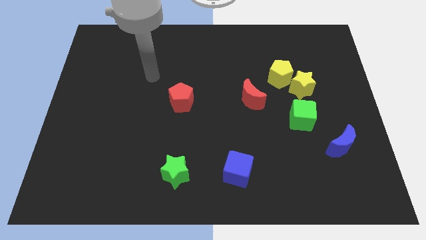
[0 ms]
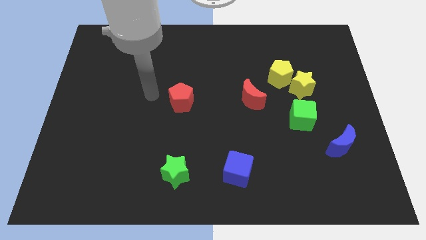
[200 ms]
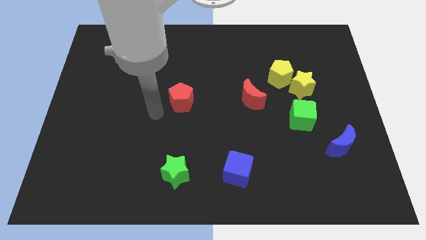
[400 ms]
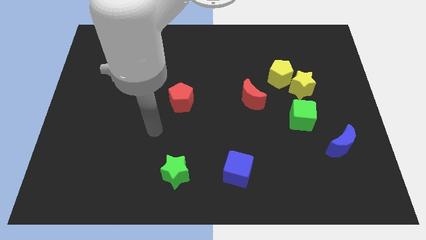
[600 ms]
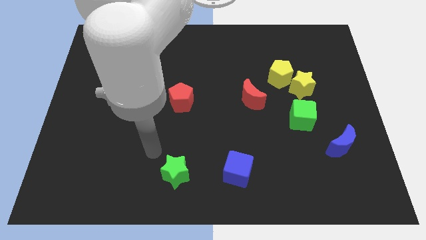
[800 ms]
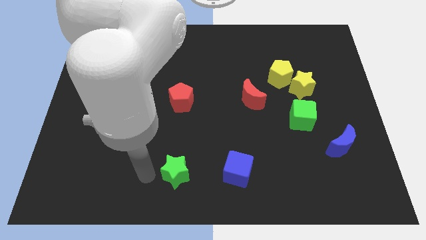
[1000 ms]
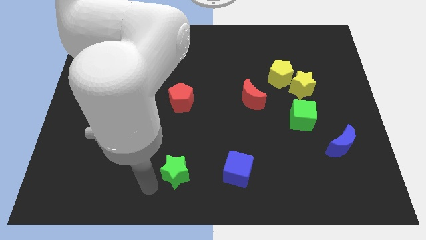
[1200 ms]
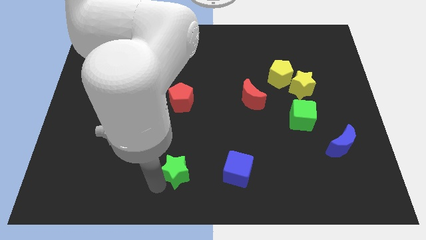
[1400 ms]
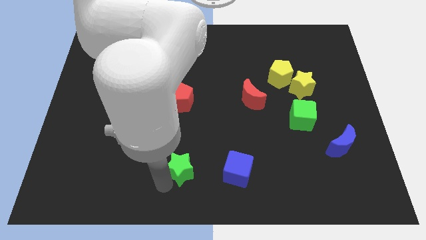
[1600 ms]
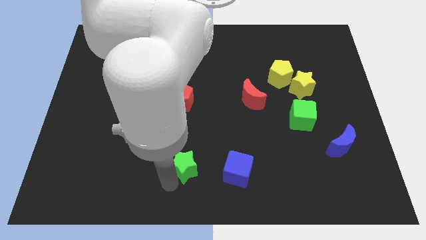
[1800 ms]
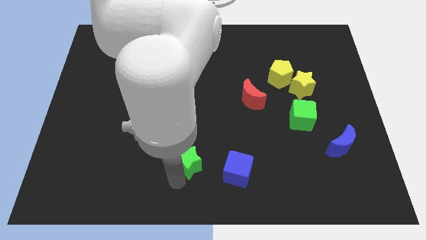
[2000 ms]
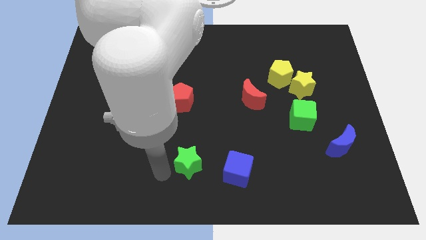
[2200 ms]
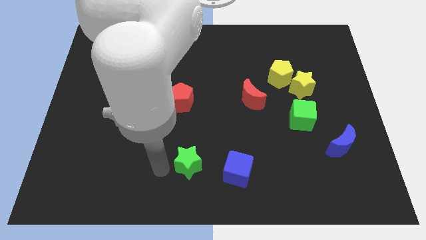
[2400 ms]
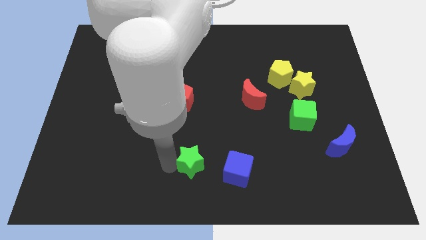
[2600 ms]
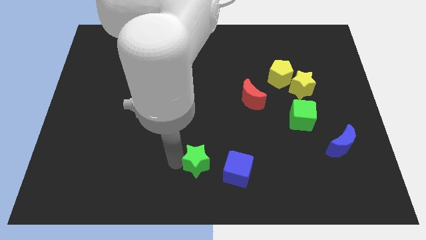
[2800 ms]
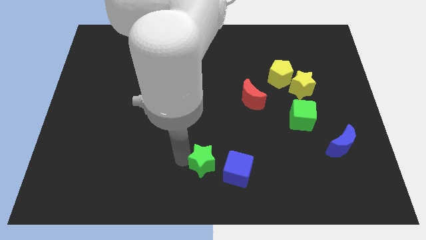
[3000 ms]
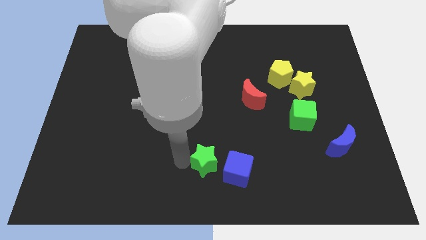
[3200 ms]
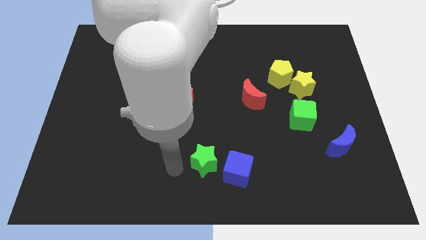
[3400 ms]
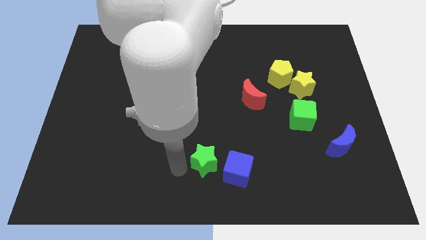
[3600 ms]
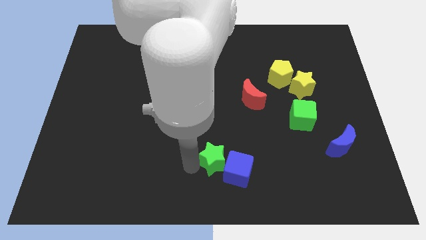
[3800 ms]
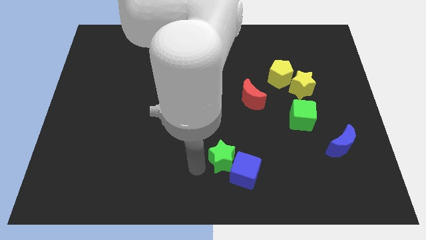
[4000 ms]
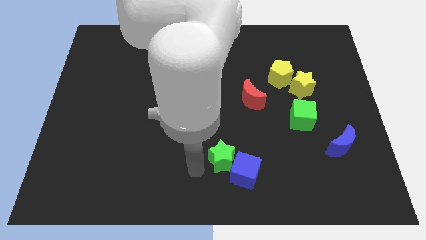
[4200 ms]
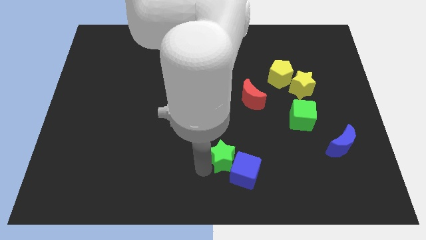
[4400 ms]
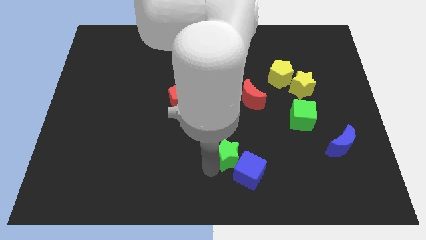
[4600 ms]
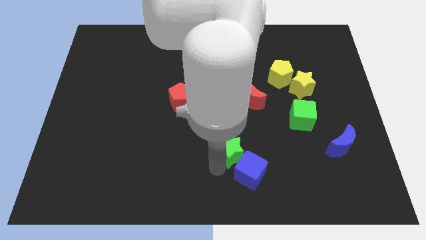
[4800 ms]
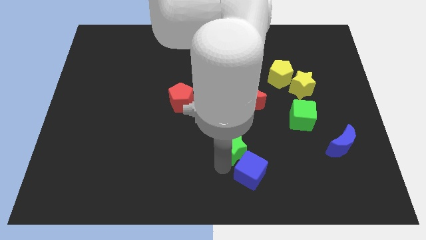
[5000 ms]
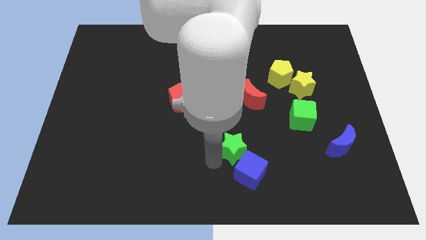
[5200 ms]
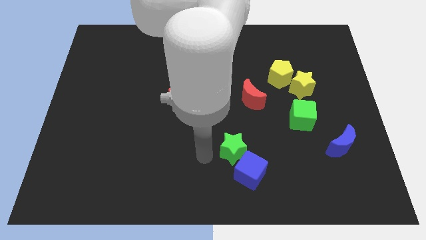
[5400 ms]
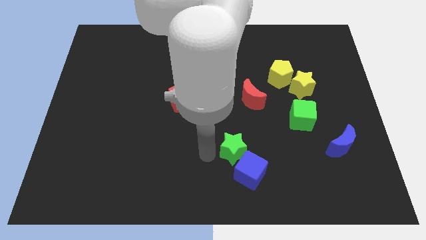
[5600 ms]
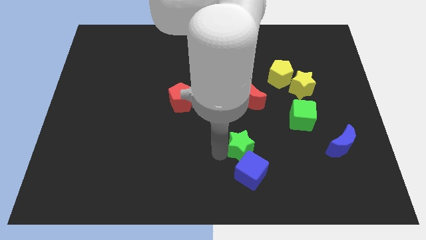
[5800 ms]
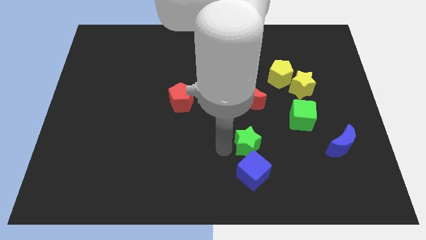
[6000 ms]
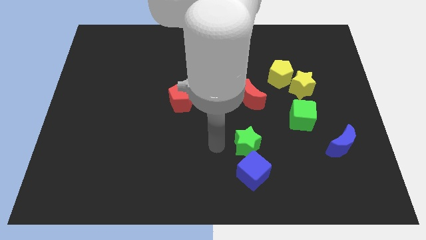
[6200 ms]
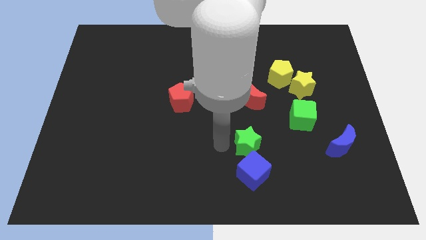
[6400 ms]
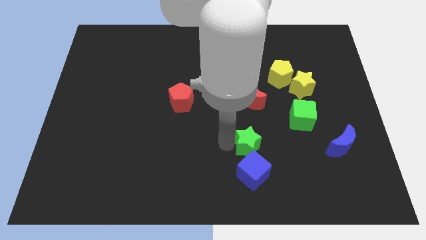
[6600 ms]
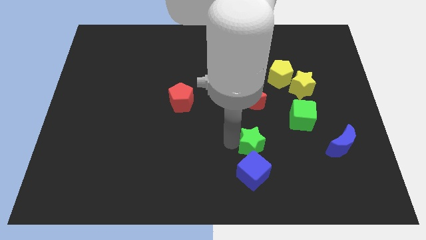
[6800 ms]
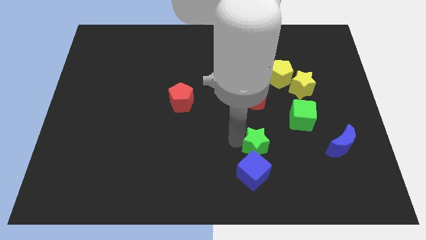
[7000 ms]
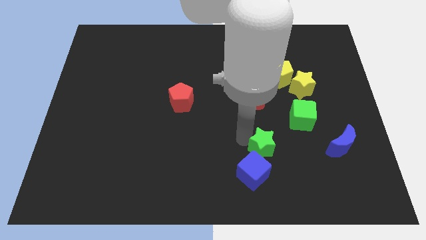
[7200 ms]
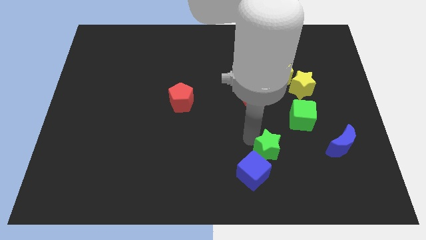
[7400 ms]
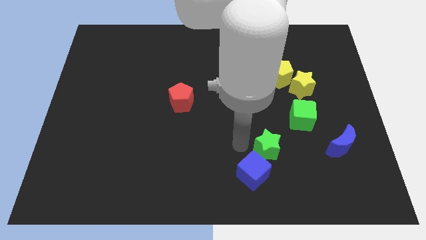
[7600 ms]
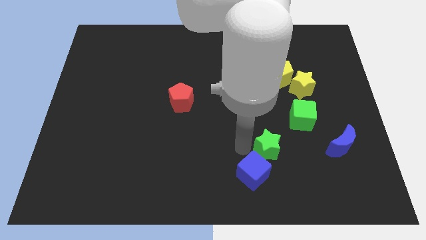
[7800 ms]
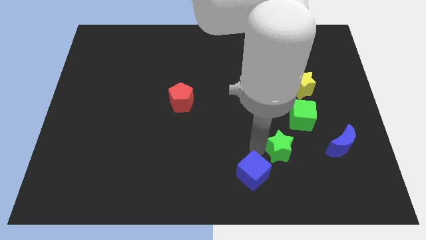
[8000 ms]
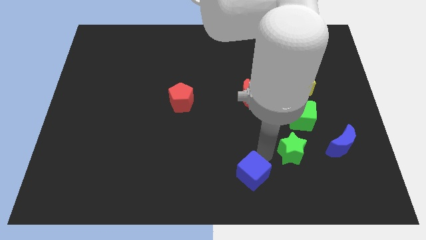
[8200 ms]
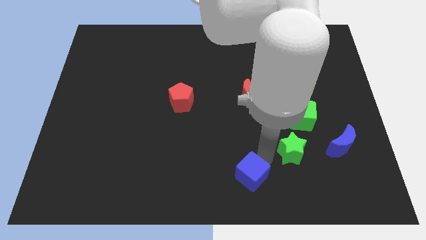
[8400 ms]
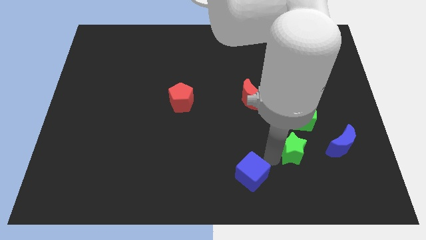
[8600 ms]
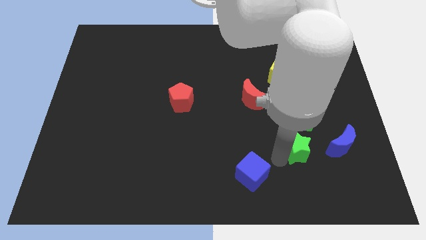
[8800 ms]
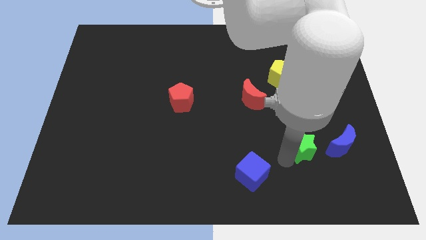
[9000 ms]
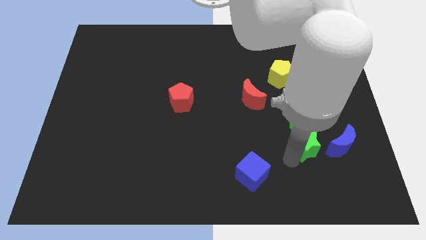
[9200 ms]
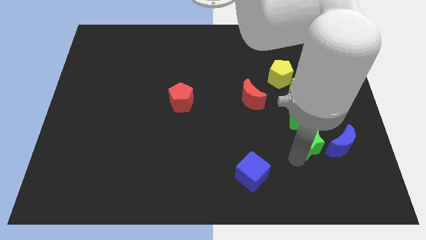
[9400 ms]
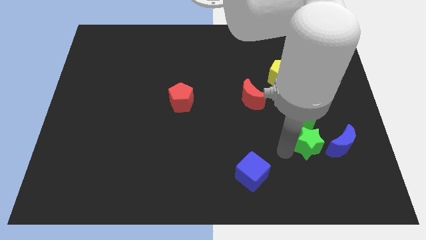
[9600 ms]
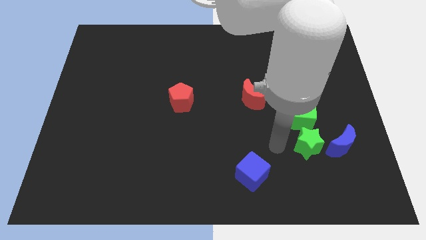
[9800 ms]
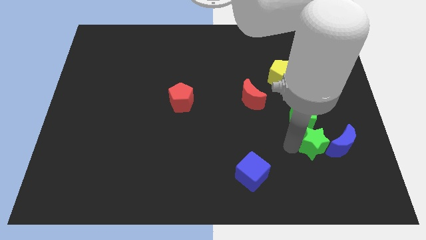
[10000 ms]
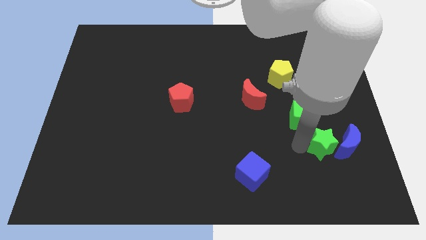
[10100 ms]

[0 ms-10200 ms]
put the green star close to the blue moon

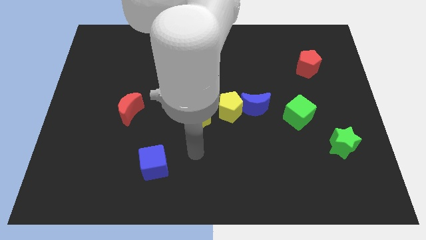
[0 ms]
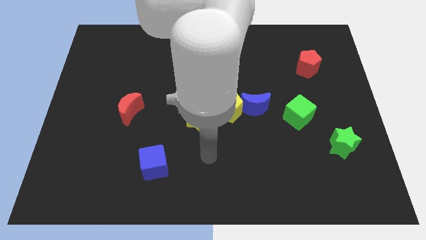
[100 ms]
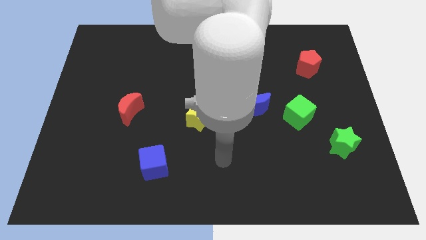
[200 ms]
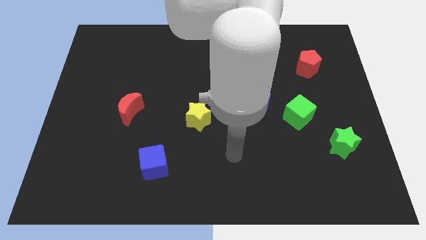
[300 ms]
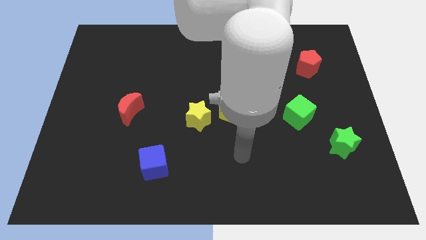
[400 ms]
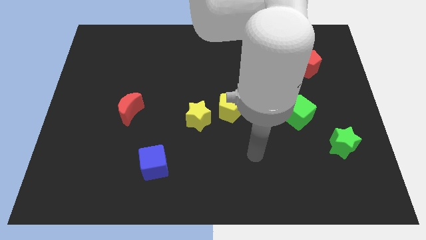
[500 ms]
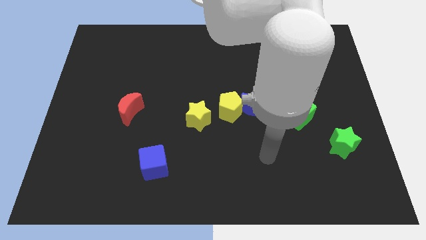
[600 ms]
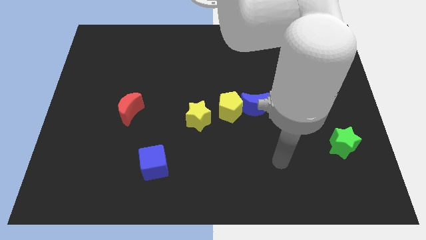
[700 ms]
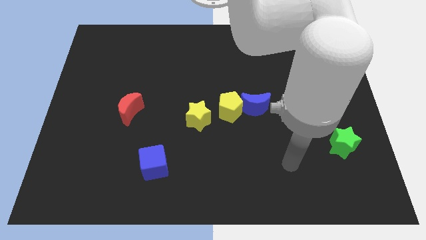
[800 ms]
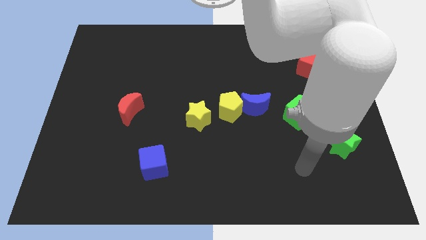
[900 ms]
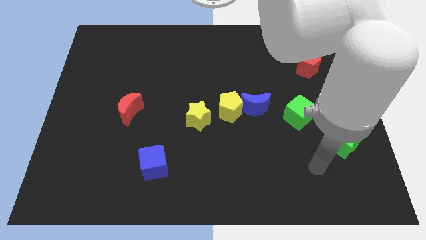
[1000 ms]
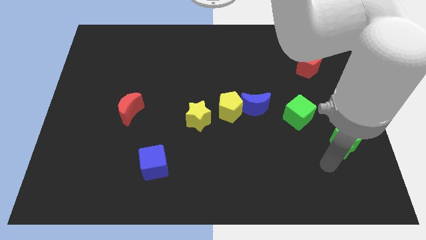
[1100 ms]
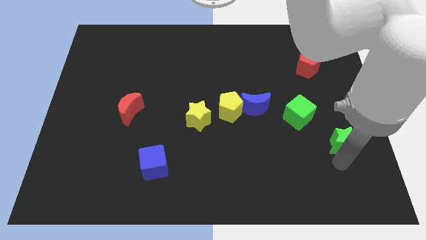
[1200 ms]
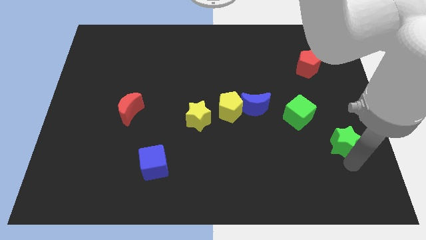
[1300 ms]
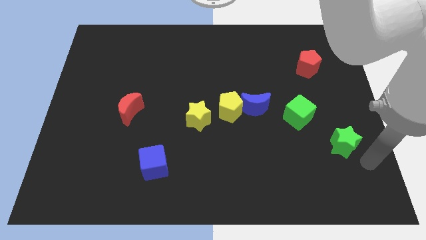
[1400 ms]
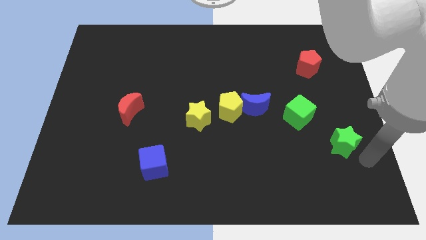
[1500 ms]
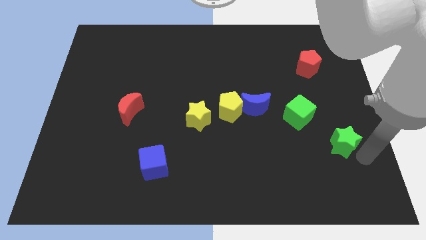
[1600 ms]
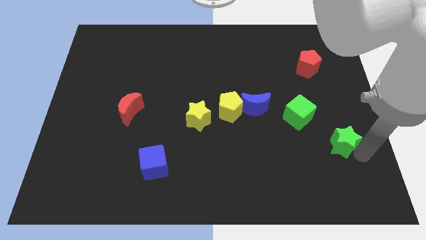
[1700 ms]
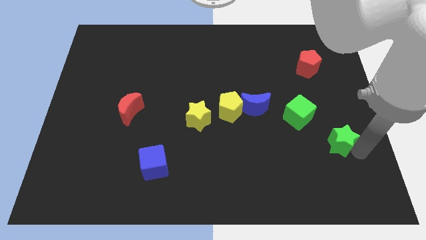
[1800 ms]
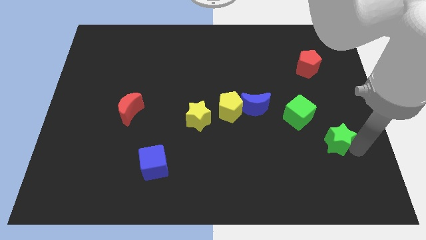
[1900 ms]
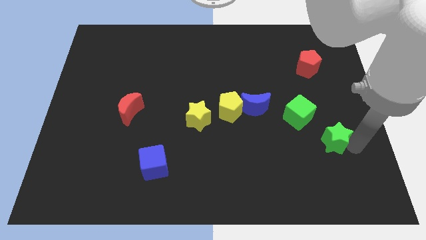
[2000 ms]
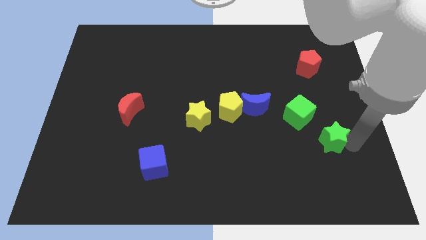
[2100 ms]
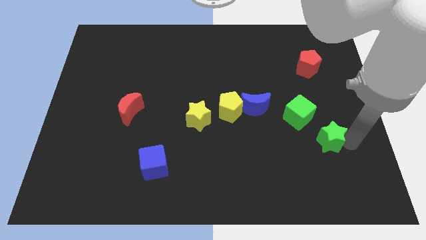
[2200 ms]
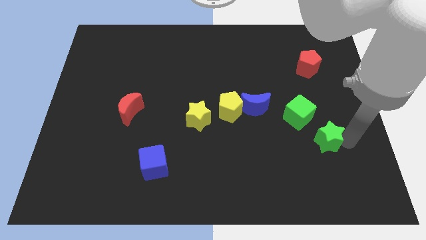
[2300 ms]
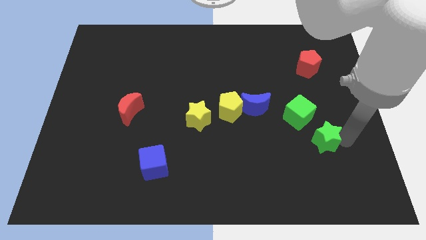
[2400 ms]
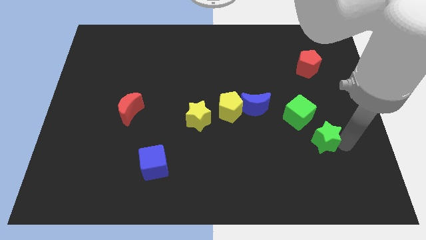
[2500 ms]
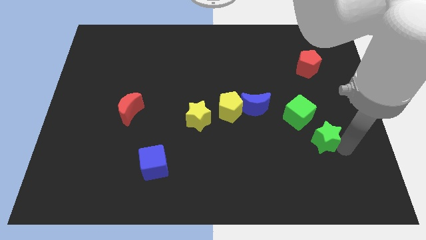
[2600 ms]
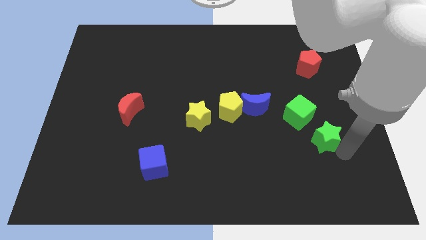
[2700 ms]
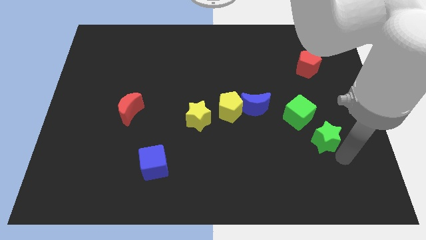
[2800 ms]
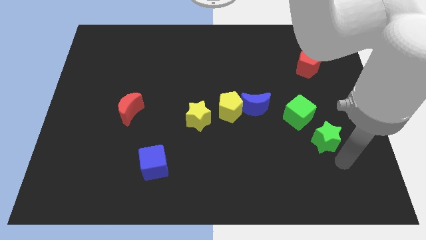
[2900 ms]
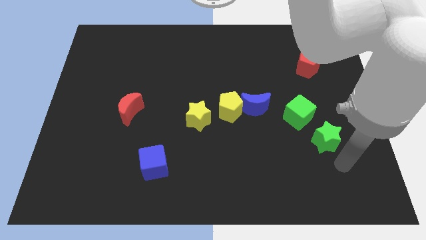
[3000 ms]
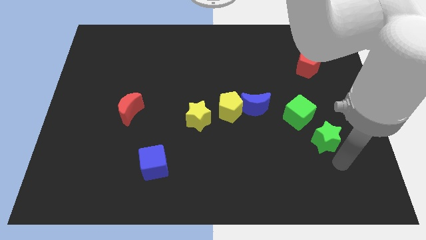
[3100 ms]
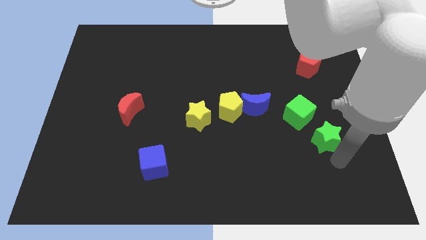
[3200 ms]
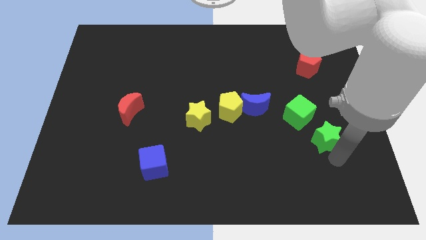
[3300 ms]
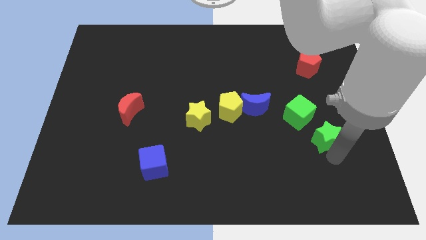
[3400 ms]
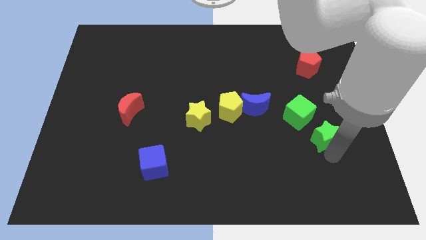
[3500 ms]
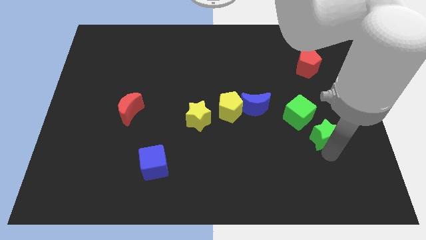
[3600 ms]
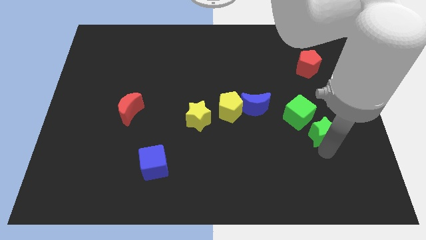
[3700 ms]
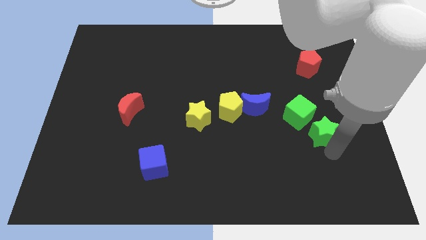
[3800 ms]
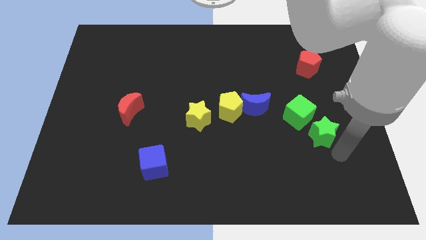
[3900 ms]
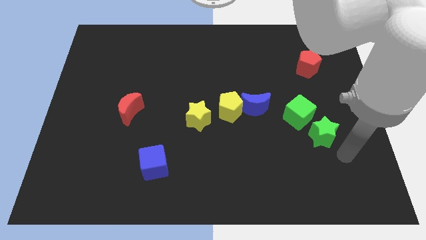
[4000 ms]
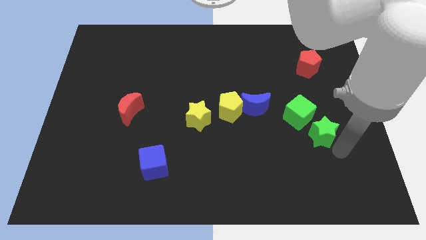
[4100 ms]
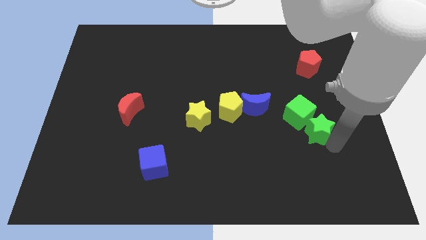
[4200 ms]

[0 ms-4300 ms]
put the green star to the green cube
